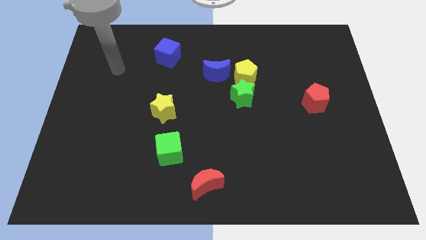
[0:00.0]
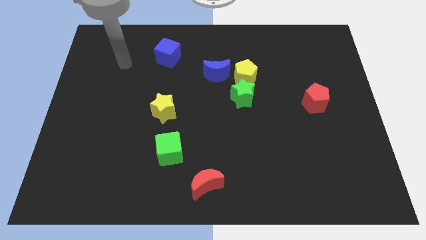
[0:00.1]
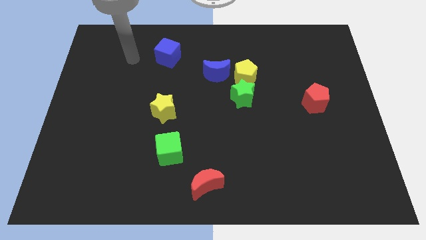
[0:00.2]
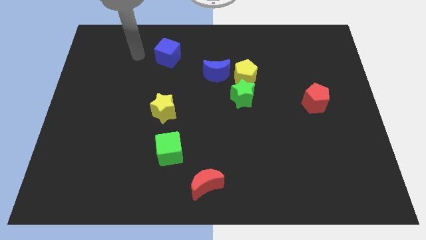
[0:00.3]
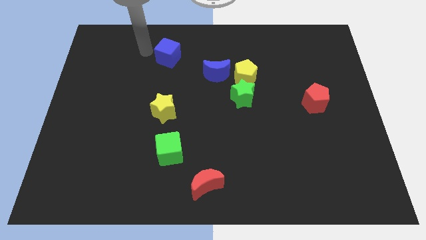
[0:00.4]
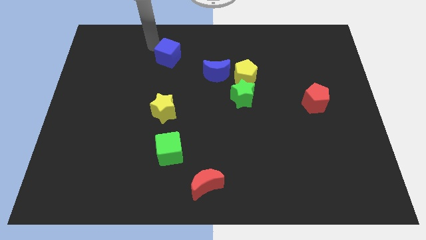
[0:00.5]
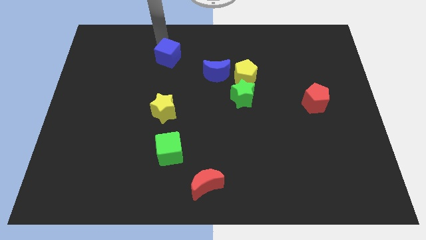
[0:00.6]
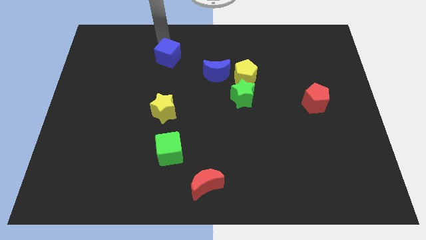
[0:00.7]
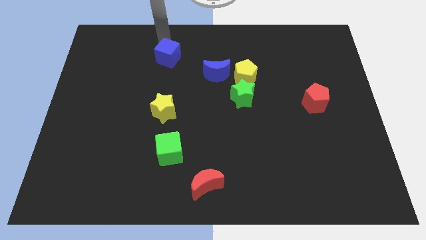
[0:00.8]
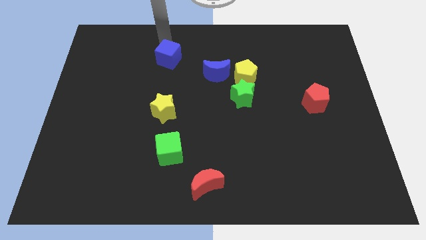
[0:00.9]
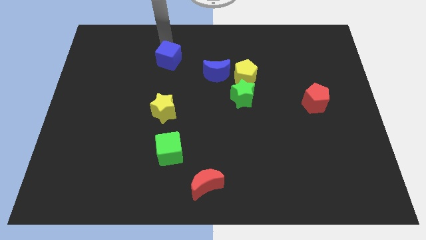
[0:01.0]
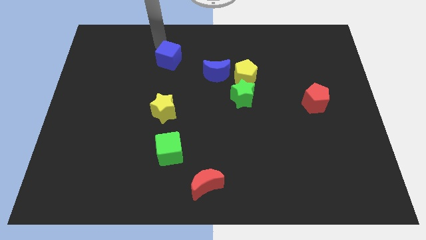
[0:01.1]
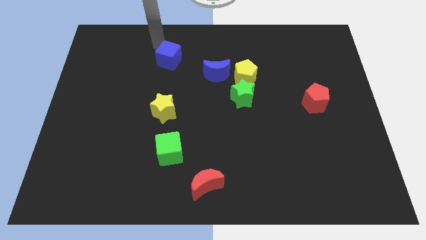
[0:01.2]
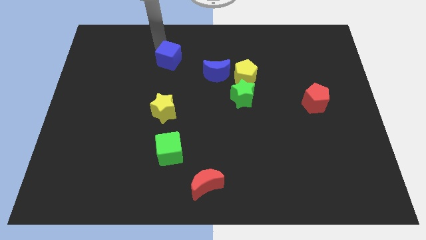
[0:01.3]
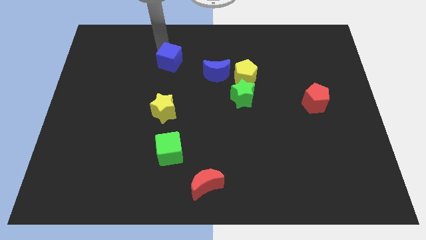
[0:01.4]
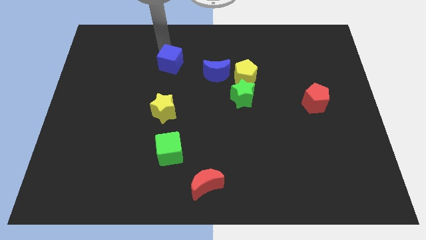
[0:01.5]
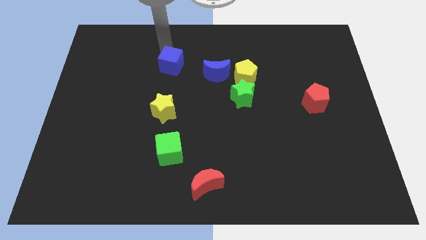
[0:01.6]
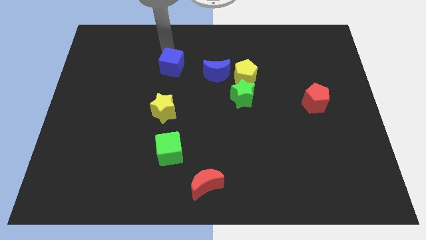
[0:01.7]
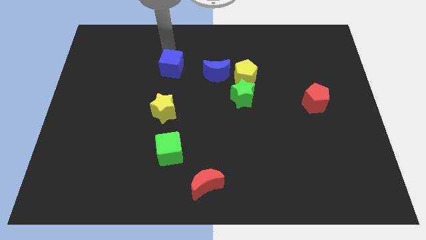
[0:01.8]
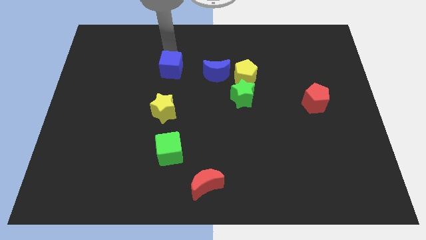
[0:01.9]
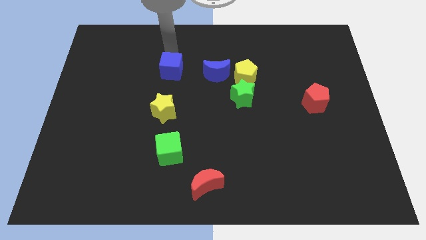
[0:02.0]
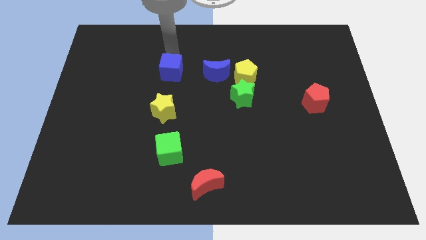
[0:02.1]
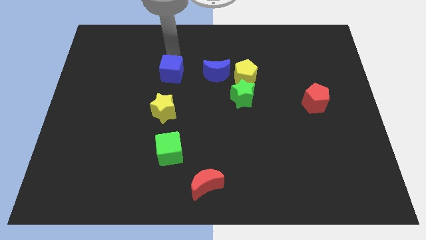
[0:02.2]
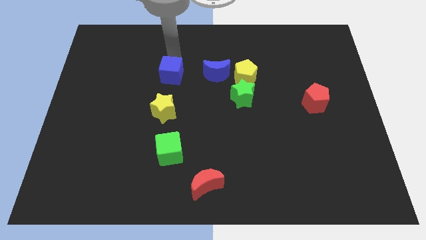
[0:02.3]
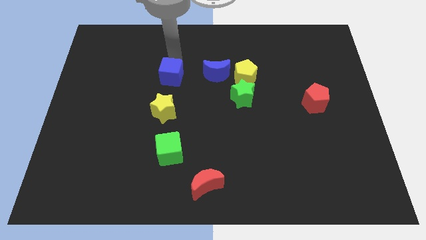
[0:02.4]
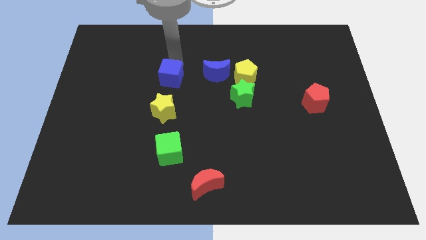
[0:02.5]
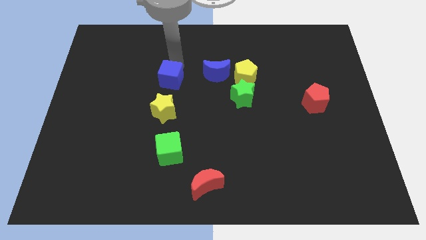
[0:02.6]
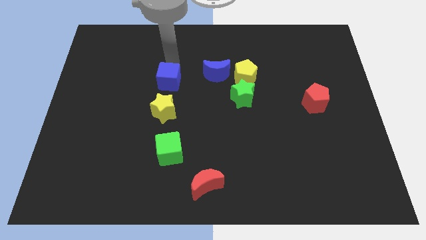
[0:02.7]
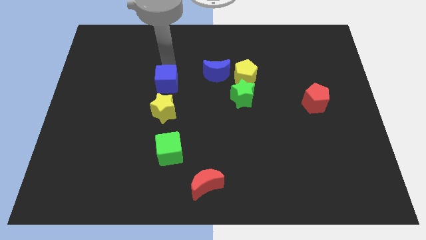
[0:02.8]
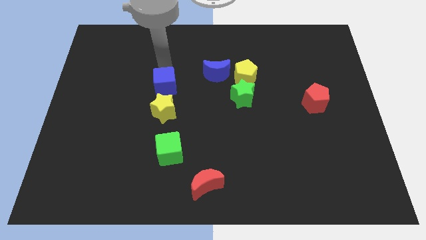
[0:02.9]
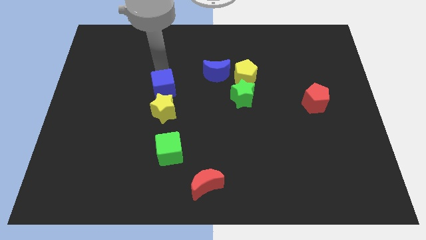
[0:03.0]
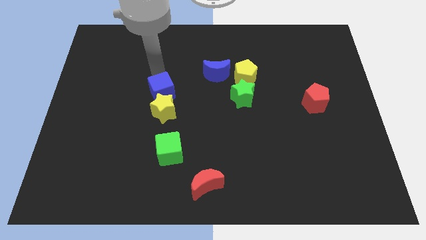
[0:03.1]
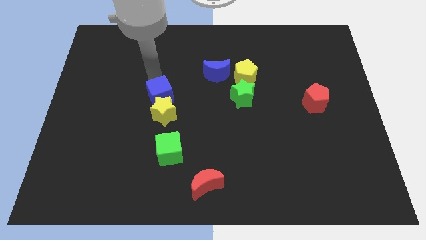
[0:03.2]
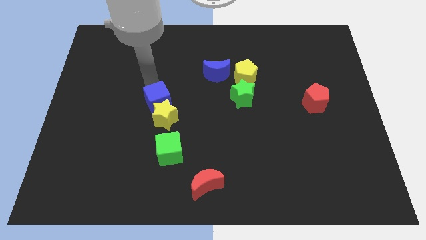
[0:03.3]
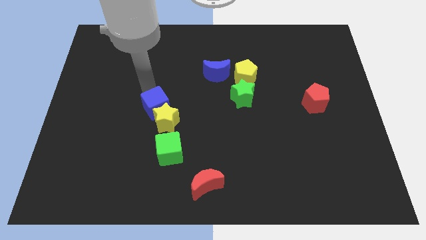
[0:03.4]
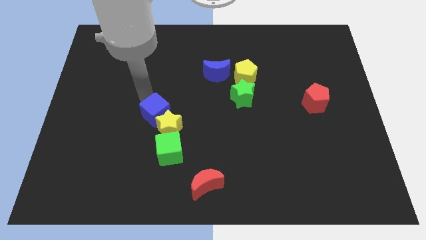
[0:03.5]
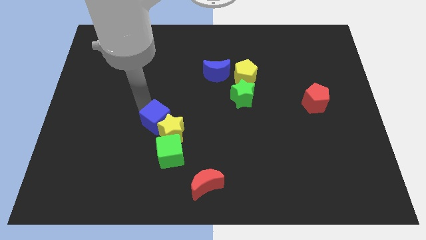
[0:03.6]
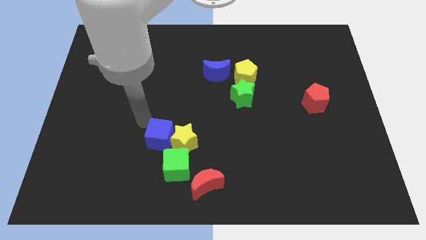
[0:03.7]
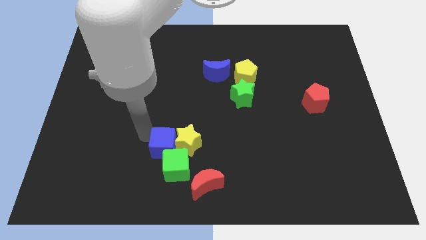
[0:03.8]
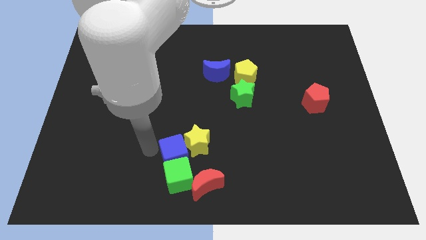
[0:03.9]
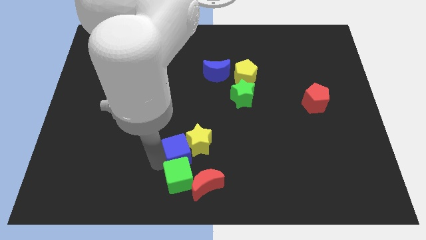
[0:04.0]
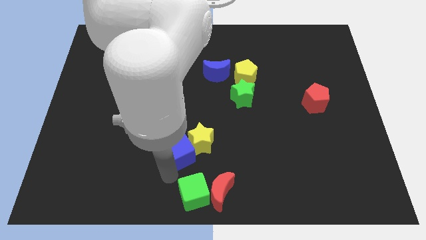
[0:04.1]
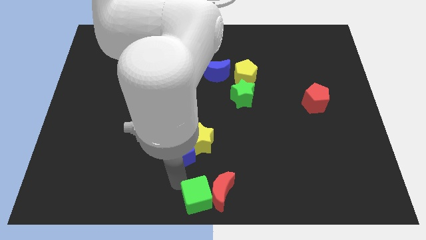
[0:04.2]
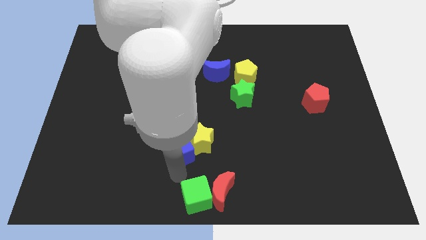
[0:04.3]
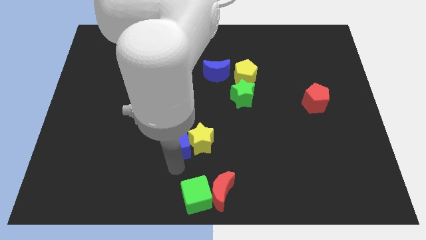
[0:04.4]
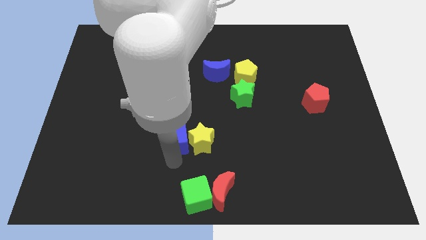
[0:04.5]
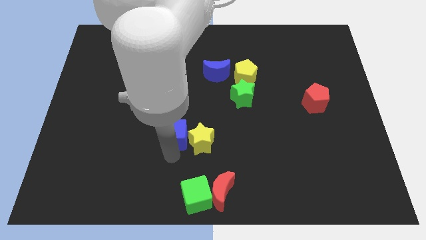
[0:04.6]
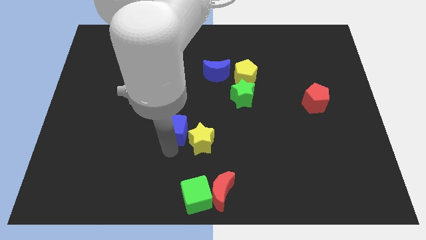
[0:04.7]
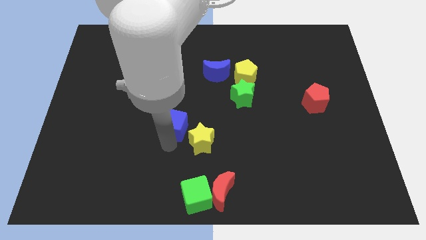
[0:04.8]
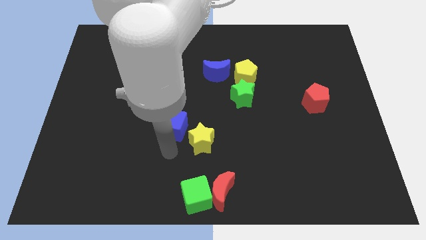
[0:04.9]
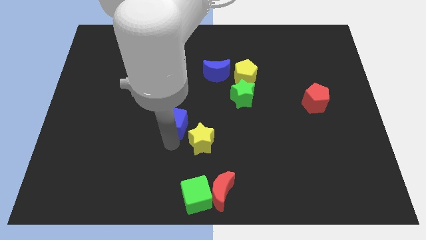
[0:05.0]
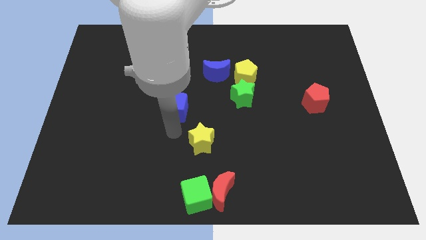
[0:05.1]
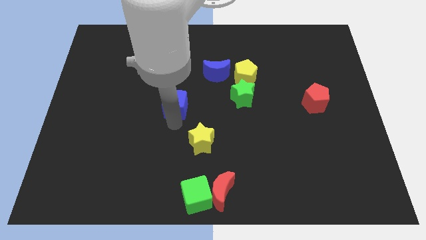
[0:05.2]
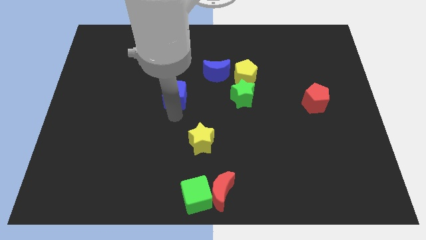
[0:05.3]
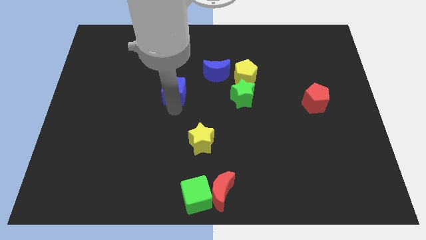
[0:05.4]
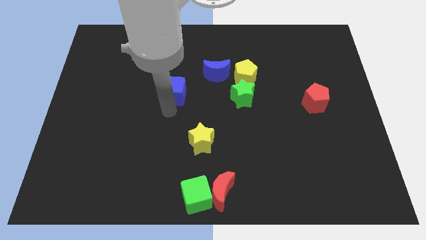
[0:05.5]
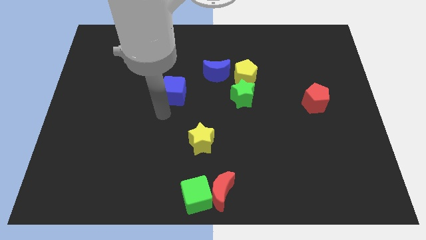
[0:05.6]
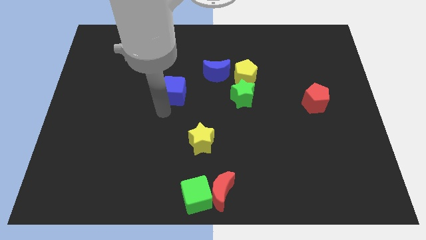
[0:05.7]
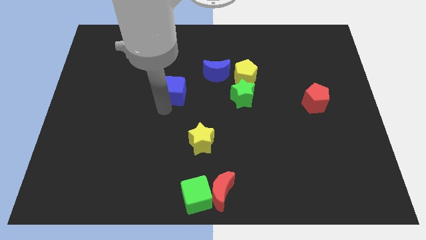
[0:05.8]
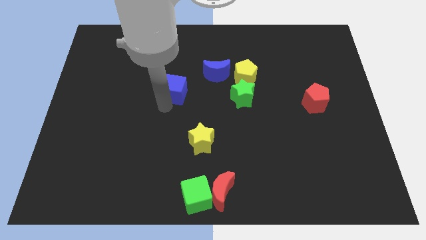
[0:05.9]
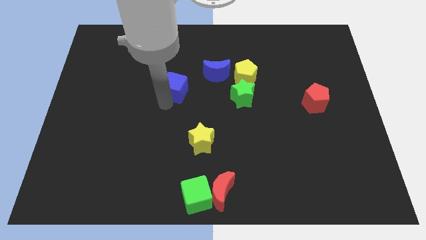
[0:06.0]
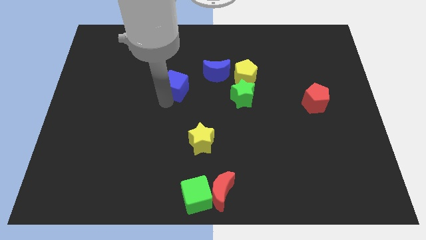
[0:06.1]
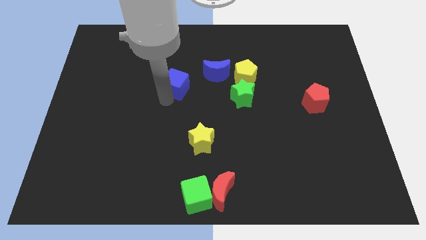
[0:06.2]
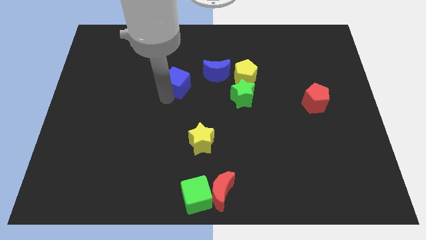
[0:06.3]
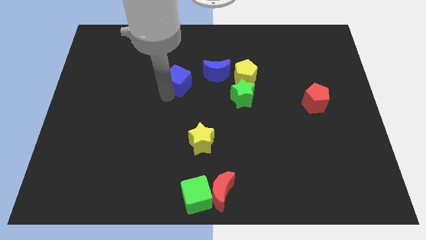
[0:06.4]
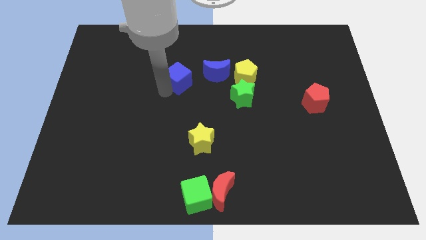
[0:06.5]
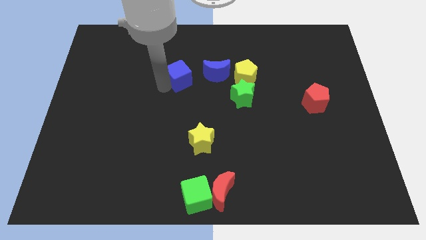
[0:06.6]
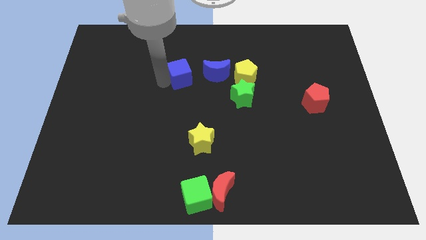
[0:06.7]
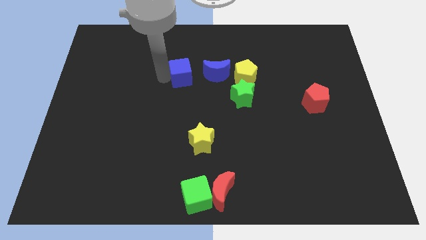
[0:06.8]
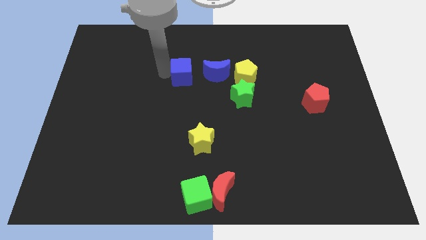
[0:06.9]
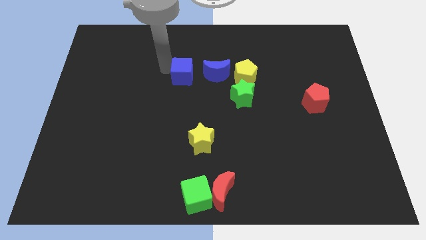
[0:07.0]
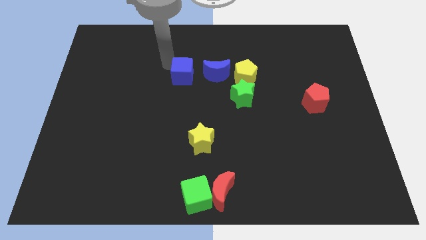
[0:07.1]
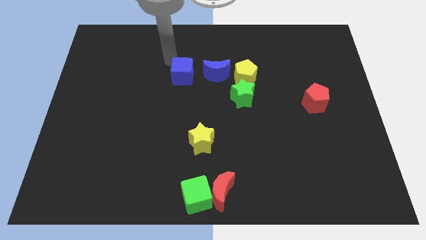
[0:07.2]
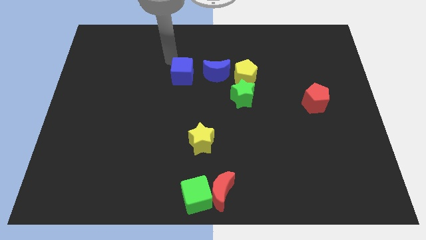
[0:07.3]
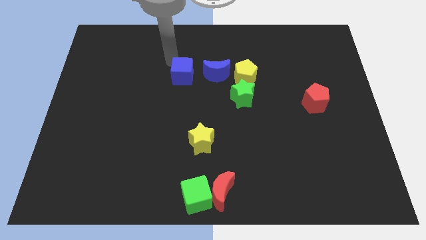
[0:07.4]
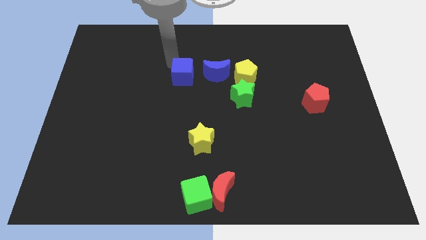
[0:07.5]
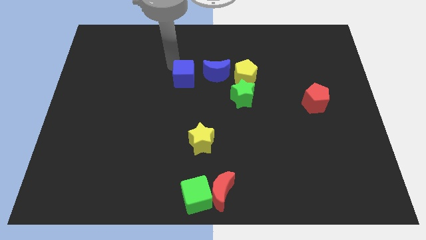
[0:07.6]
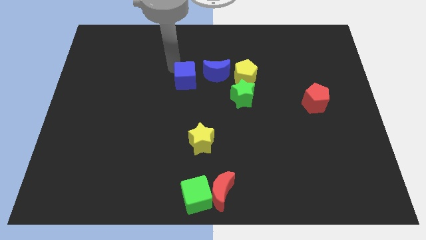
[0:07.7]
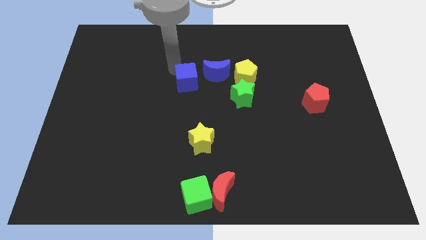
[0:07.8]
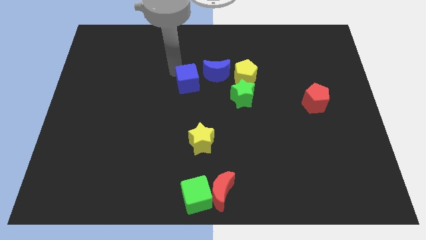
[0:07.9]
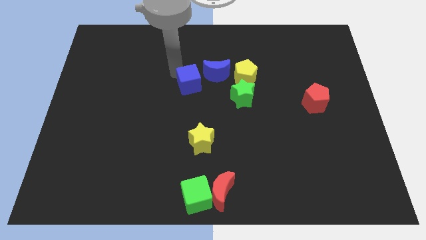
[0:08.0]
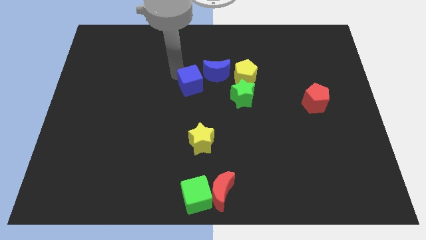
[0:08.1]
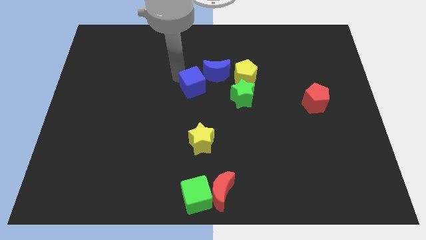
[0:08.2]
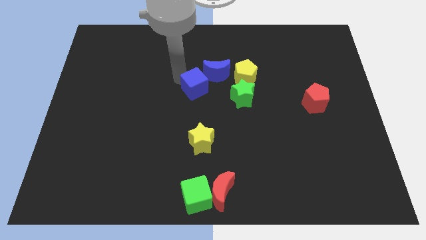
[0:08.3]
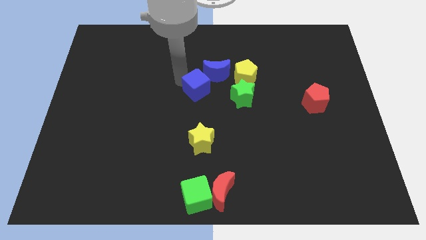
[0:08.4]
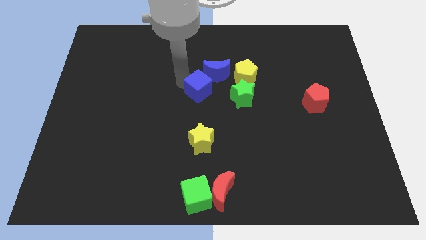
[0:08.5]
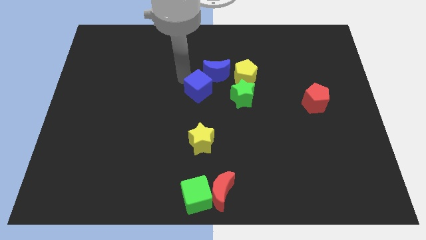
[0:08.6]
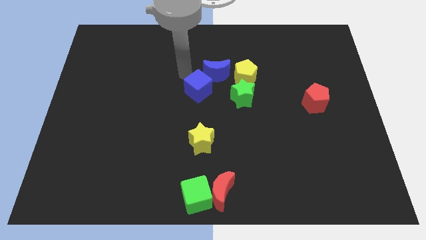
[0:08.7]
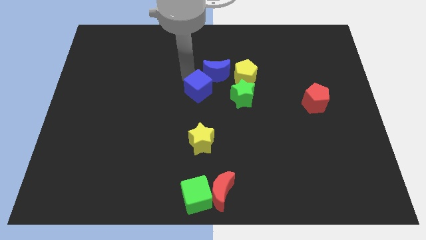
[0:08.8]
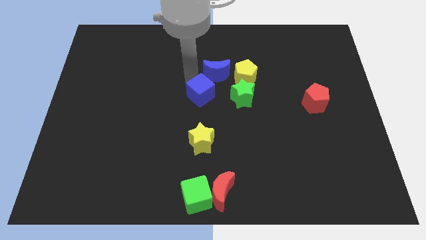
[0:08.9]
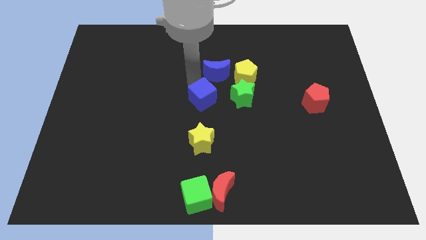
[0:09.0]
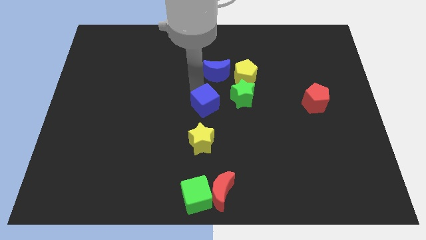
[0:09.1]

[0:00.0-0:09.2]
slide the blue cube to the bottom left of the green star
